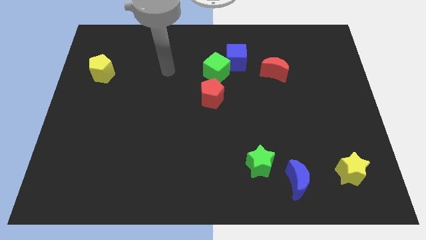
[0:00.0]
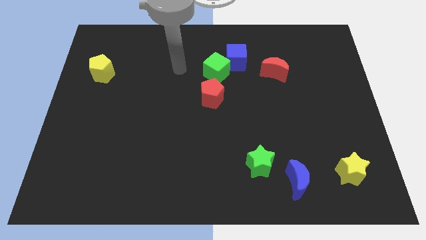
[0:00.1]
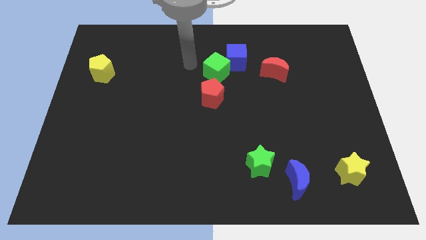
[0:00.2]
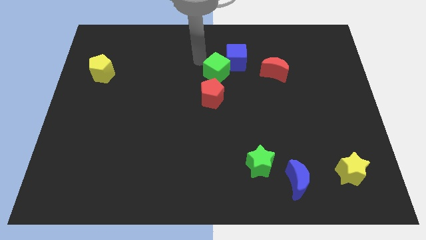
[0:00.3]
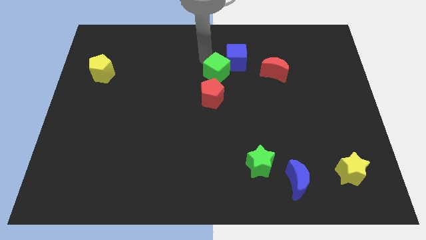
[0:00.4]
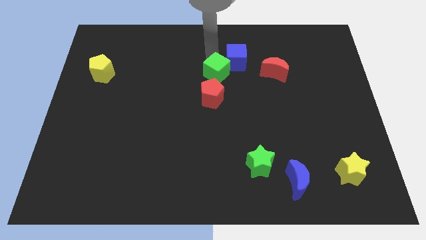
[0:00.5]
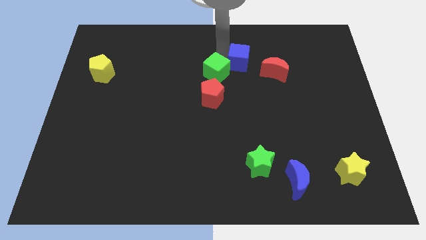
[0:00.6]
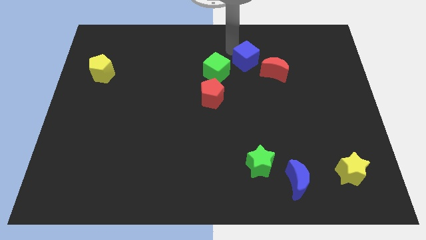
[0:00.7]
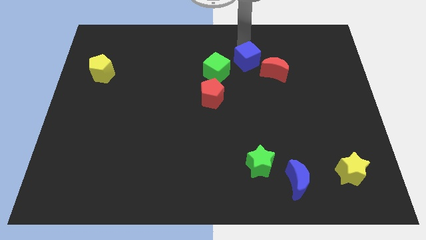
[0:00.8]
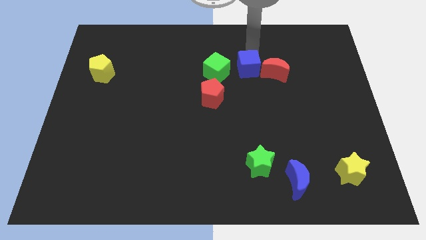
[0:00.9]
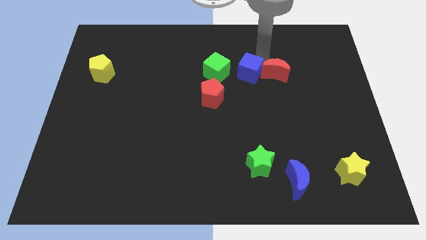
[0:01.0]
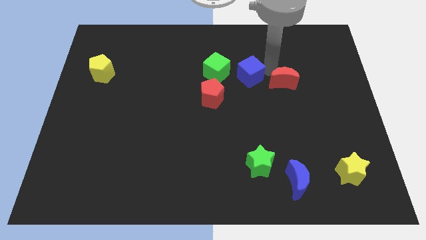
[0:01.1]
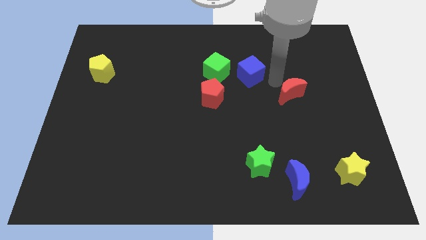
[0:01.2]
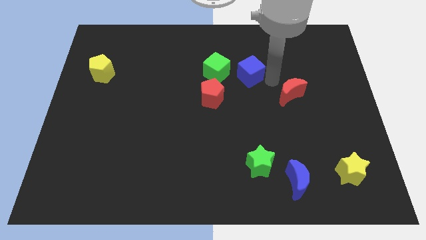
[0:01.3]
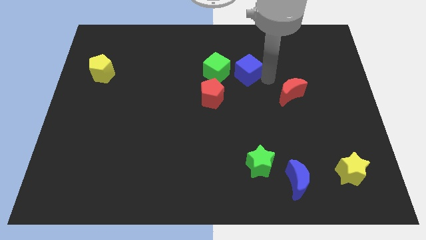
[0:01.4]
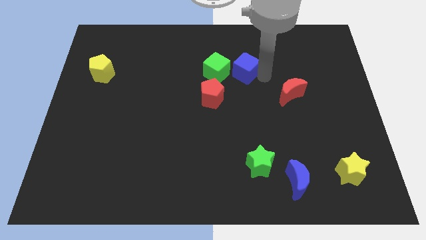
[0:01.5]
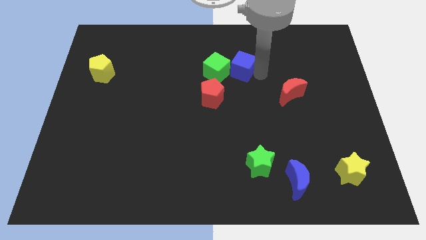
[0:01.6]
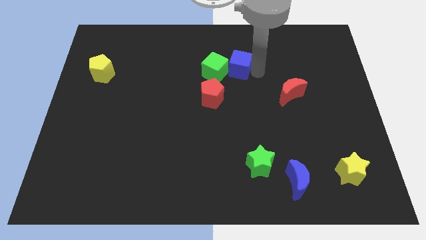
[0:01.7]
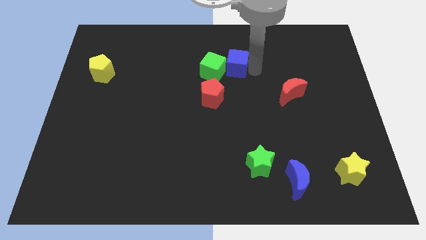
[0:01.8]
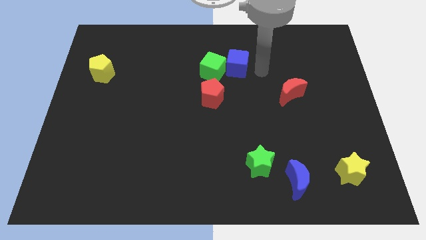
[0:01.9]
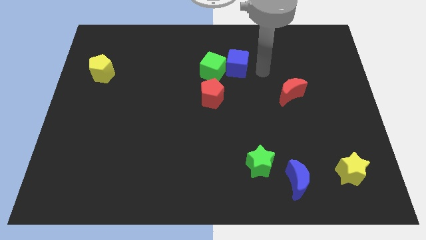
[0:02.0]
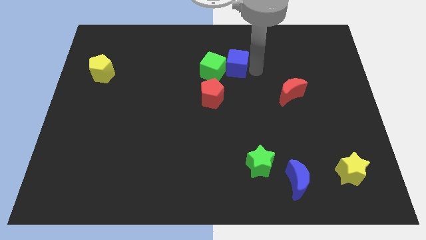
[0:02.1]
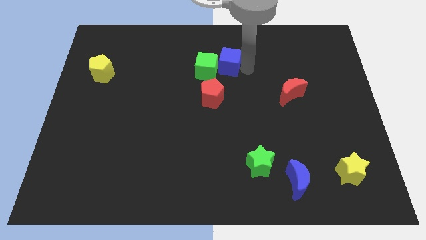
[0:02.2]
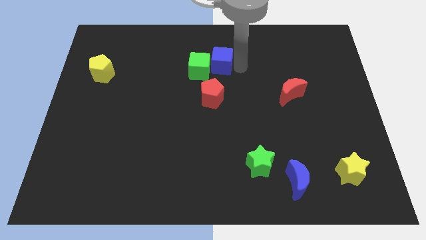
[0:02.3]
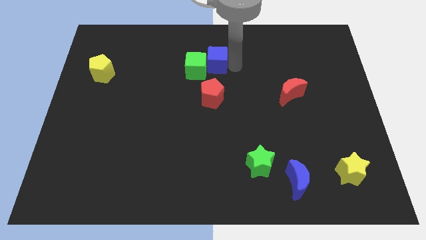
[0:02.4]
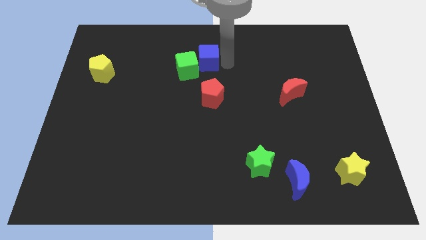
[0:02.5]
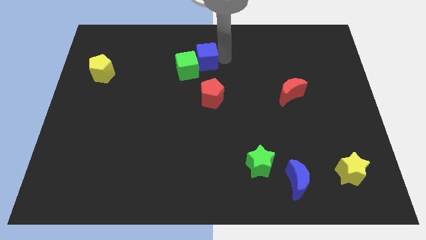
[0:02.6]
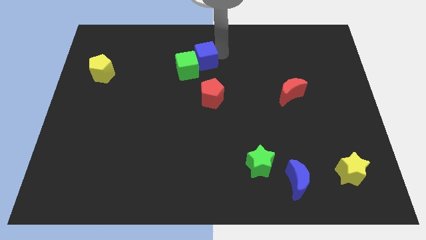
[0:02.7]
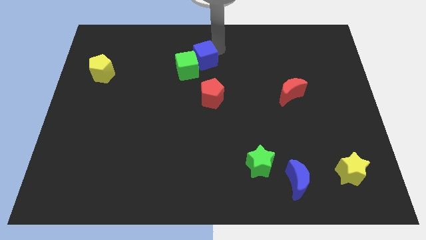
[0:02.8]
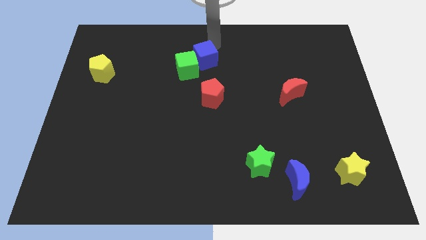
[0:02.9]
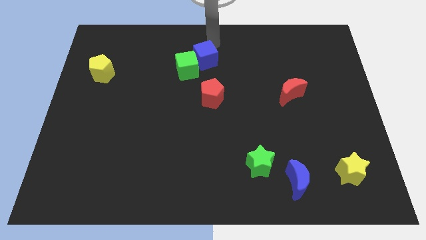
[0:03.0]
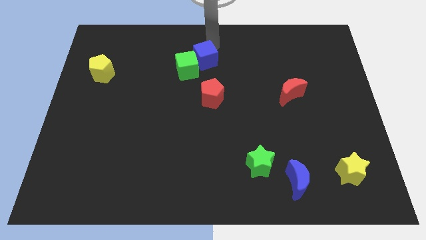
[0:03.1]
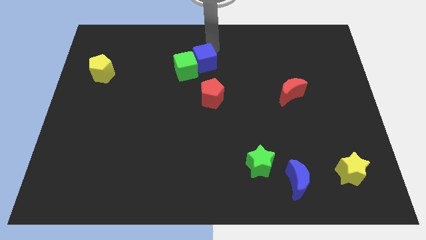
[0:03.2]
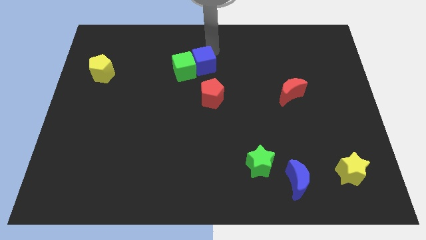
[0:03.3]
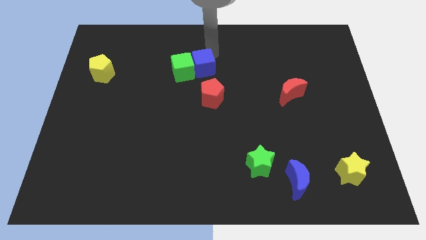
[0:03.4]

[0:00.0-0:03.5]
slide the blue cube slightly downwards and then to the left

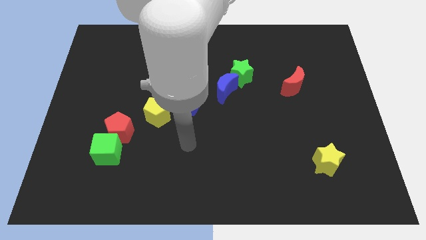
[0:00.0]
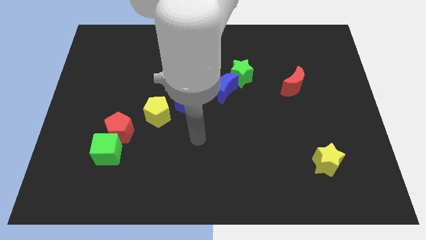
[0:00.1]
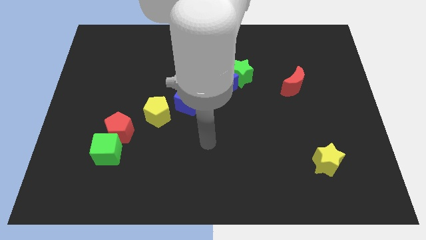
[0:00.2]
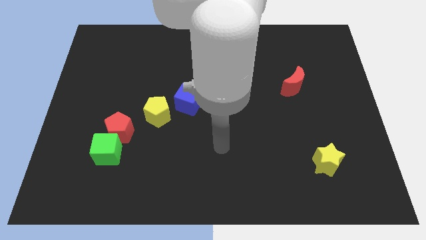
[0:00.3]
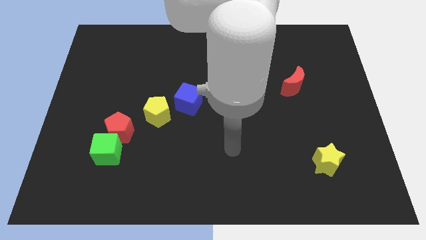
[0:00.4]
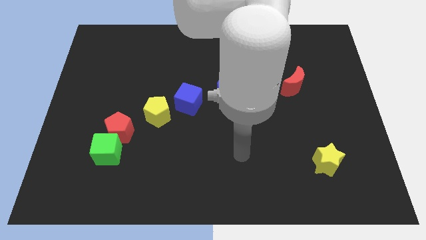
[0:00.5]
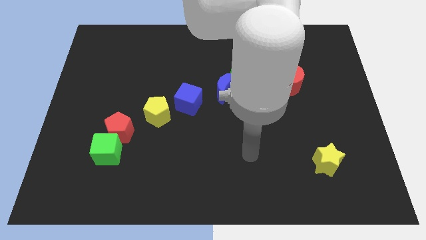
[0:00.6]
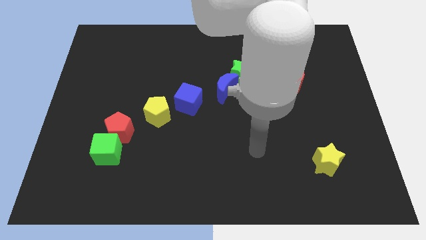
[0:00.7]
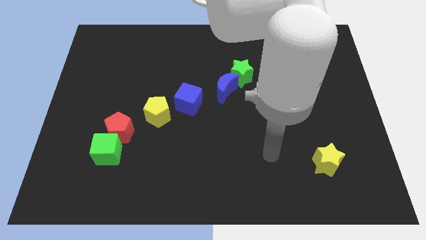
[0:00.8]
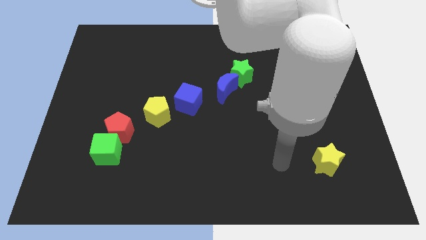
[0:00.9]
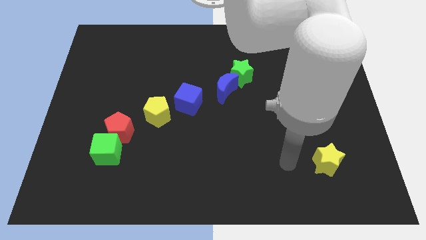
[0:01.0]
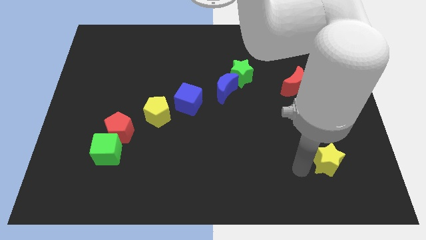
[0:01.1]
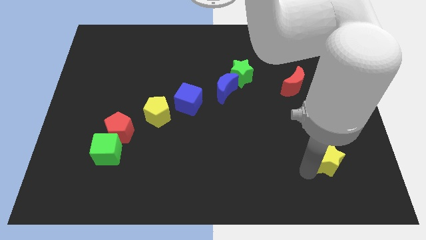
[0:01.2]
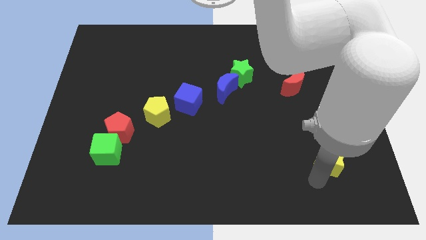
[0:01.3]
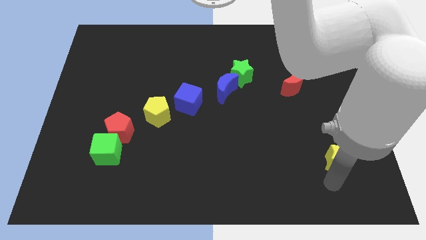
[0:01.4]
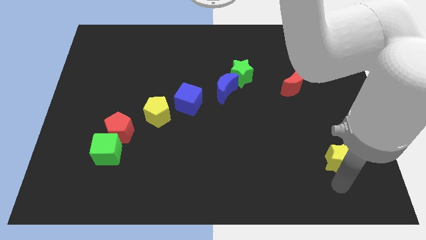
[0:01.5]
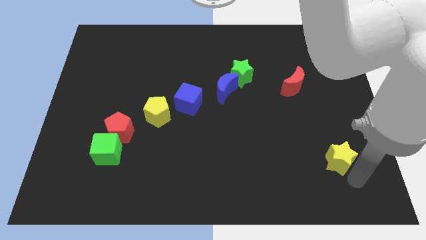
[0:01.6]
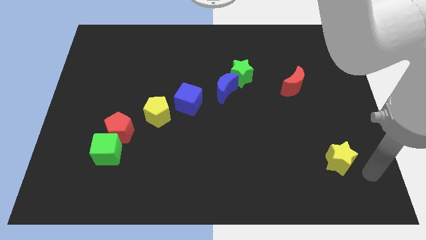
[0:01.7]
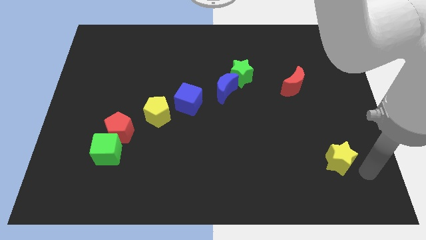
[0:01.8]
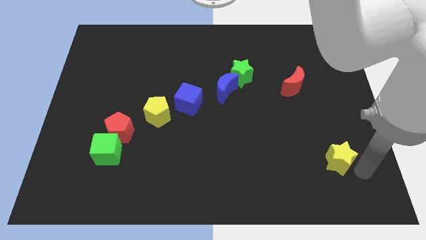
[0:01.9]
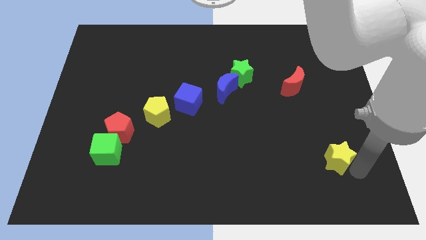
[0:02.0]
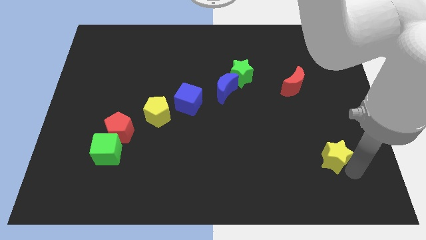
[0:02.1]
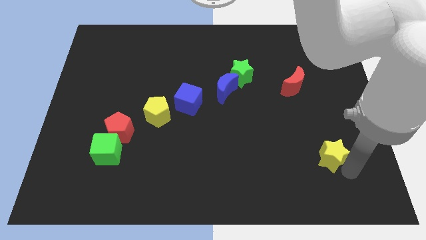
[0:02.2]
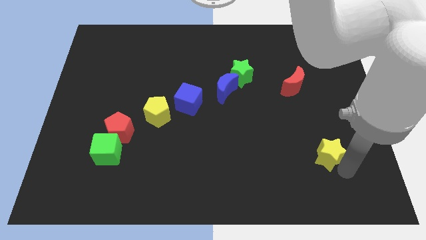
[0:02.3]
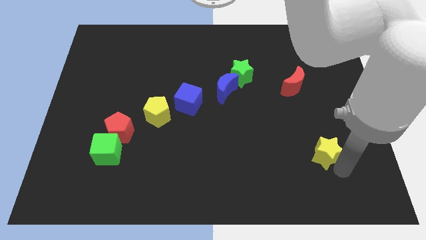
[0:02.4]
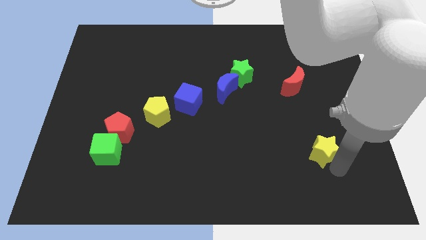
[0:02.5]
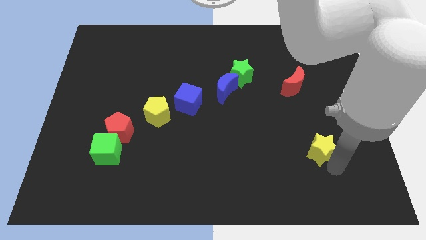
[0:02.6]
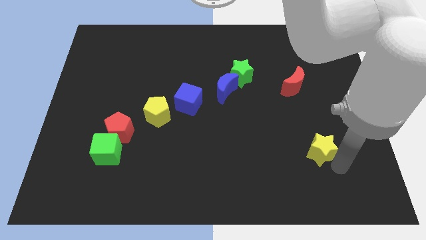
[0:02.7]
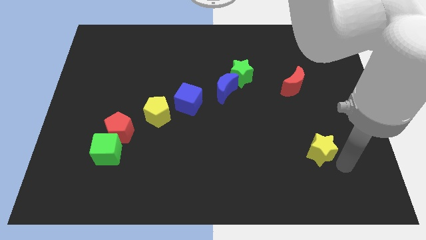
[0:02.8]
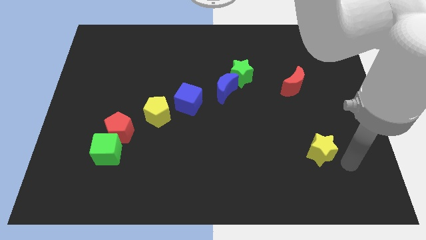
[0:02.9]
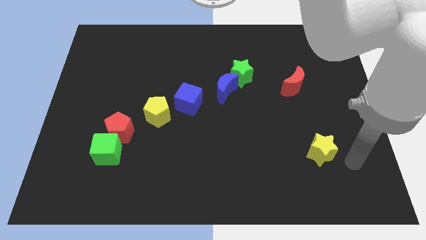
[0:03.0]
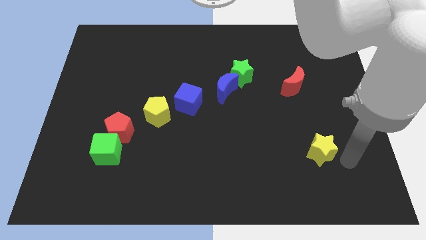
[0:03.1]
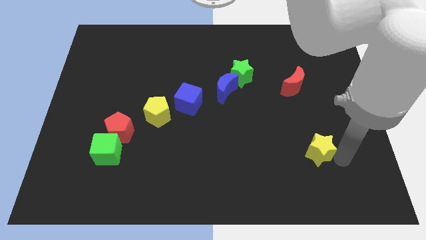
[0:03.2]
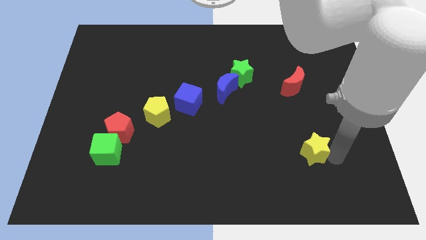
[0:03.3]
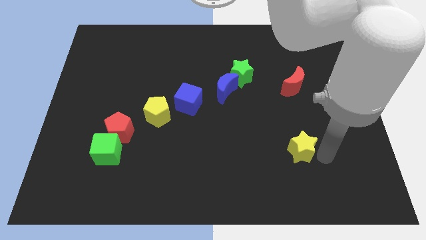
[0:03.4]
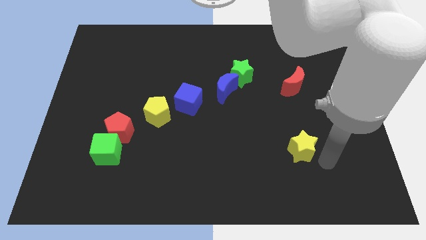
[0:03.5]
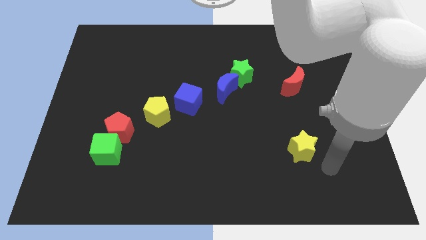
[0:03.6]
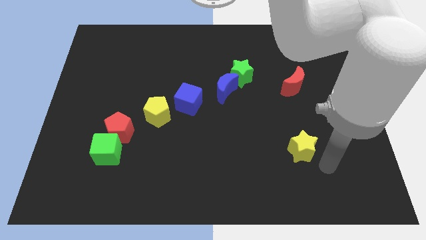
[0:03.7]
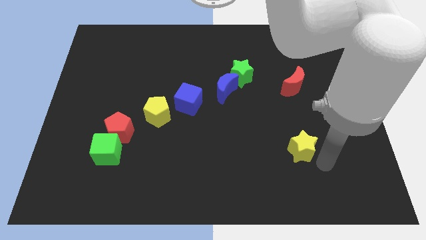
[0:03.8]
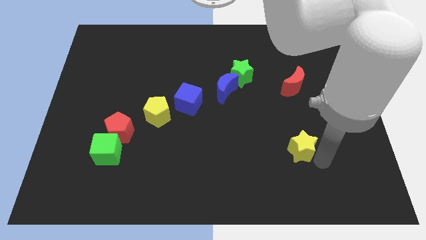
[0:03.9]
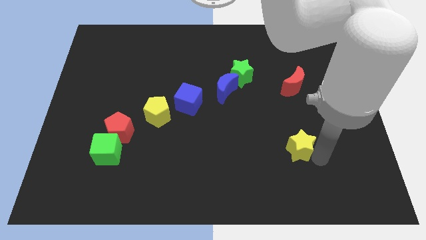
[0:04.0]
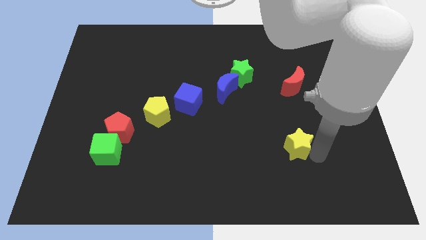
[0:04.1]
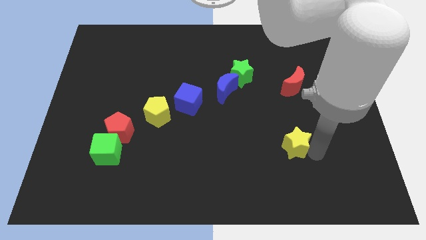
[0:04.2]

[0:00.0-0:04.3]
slide the yellow star a little bit up and left diagonally
